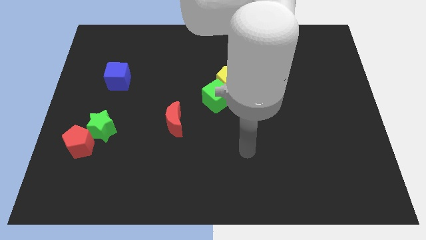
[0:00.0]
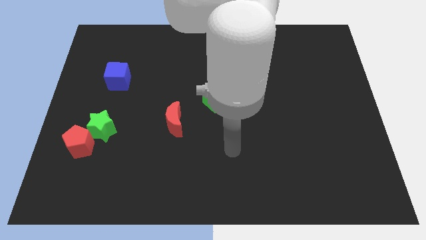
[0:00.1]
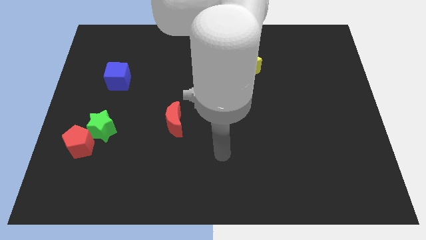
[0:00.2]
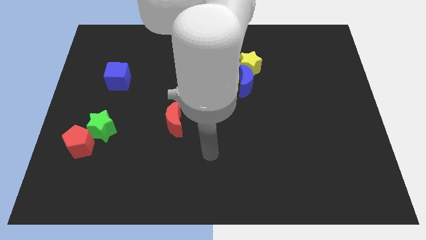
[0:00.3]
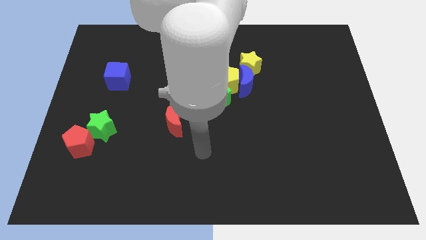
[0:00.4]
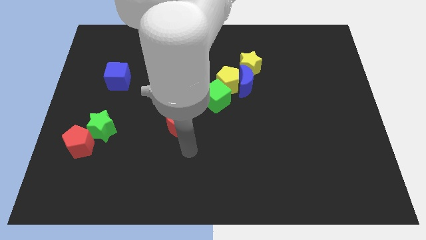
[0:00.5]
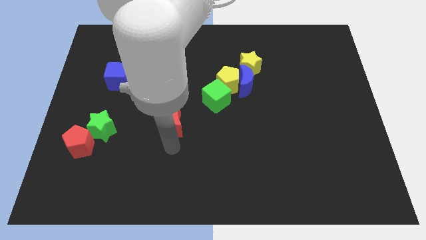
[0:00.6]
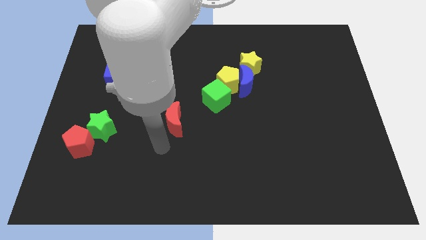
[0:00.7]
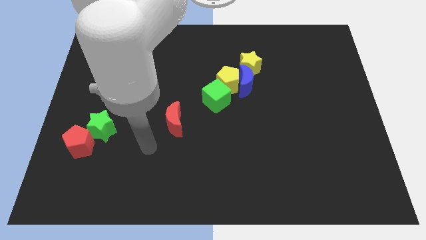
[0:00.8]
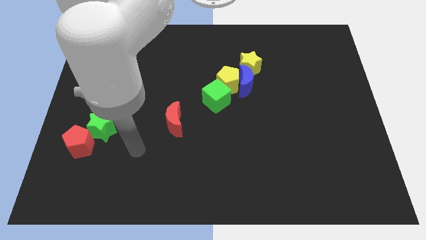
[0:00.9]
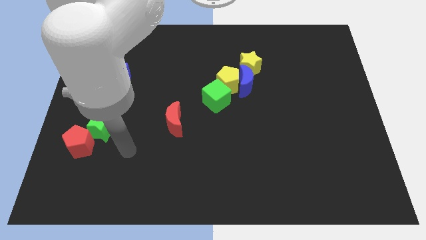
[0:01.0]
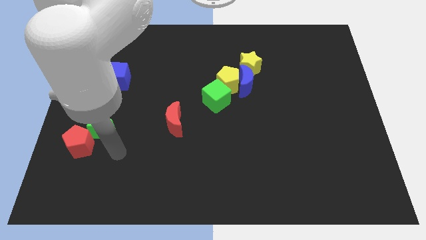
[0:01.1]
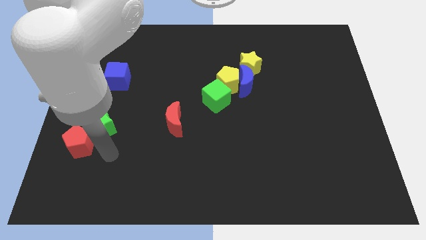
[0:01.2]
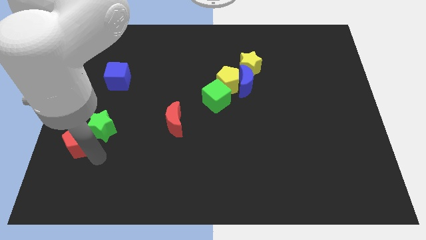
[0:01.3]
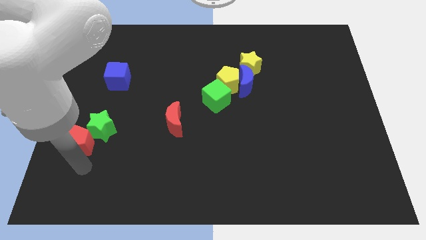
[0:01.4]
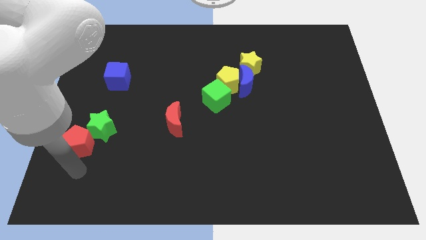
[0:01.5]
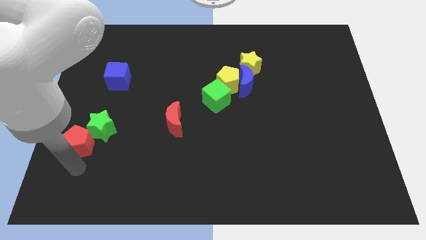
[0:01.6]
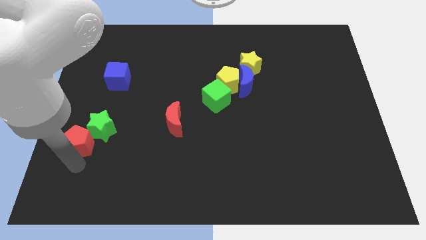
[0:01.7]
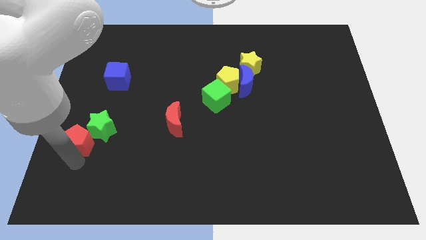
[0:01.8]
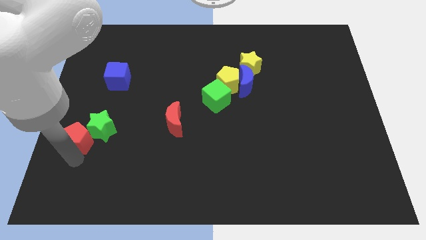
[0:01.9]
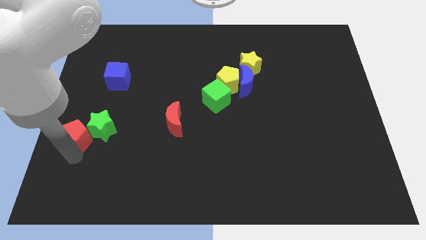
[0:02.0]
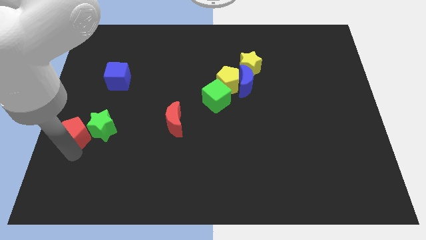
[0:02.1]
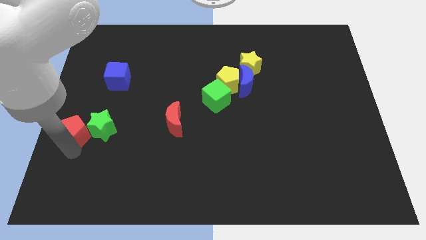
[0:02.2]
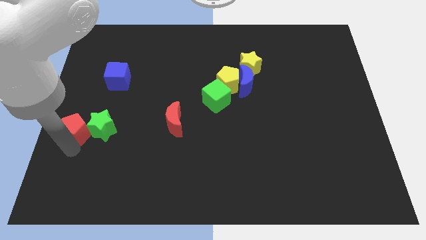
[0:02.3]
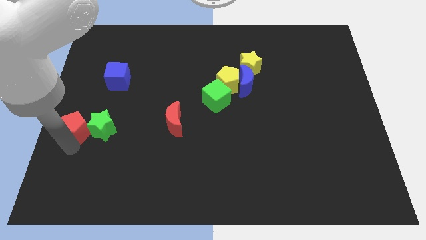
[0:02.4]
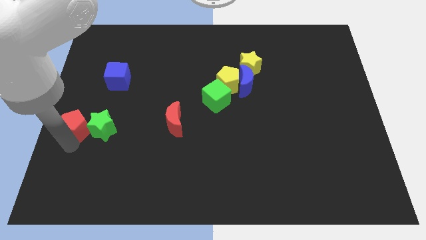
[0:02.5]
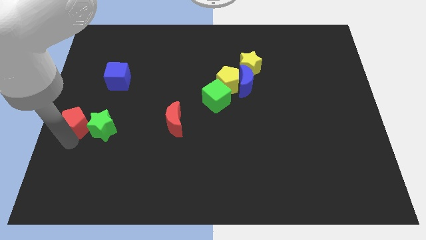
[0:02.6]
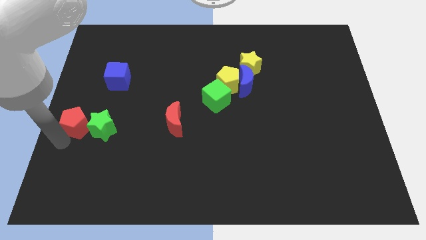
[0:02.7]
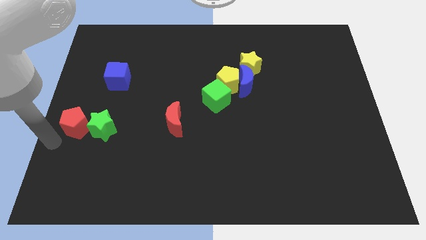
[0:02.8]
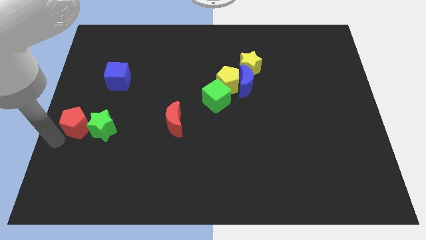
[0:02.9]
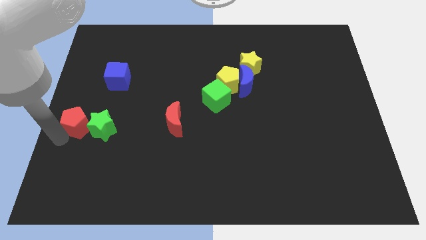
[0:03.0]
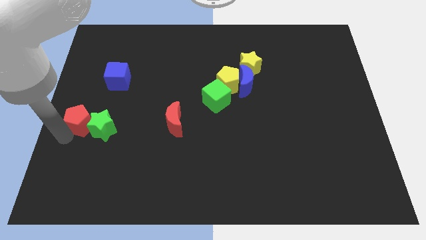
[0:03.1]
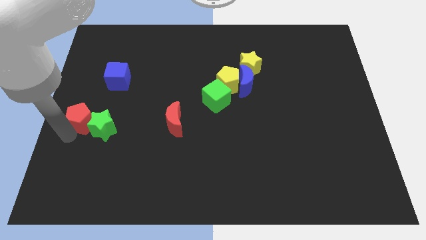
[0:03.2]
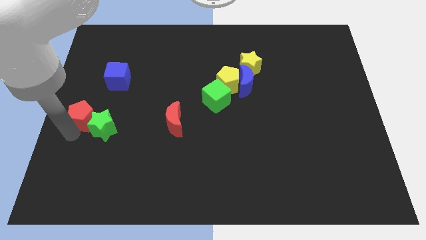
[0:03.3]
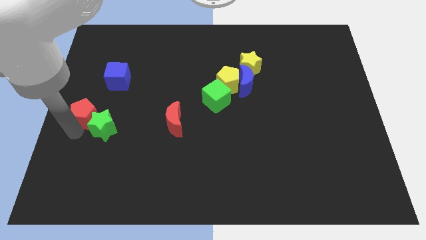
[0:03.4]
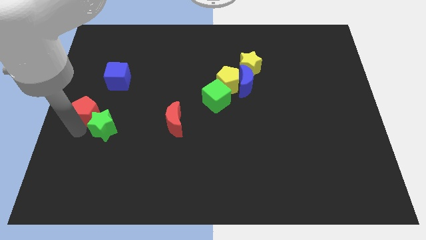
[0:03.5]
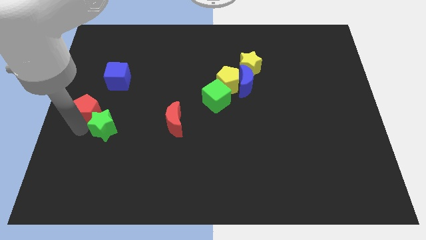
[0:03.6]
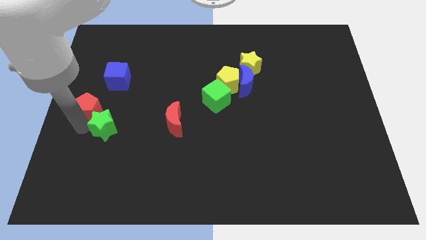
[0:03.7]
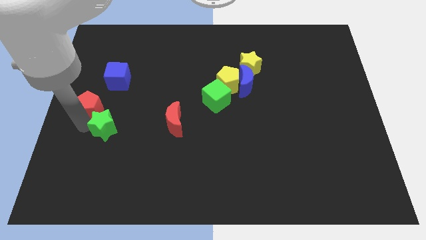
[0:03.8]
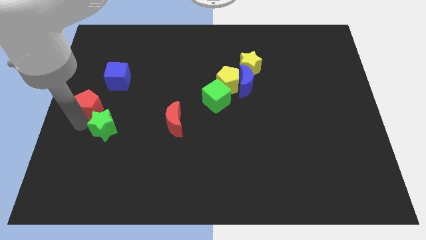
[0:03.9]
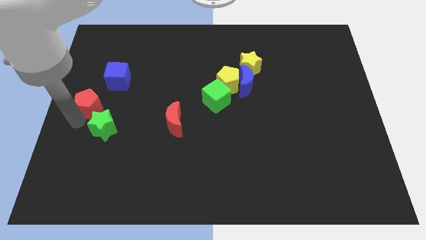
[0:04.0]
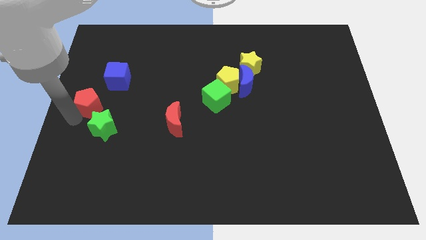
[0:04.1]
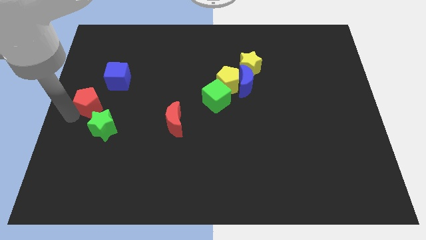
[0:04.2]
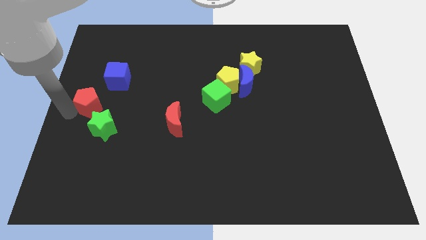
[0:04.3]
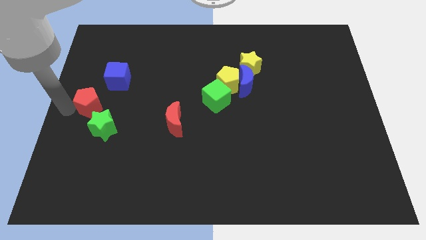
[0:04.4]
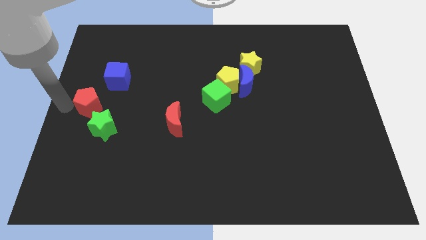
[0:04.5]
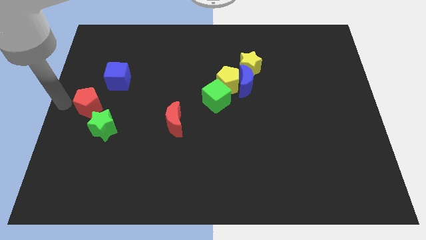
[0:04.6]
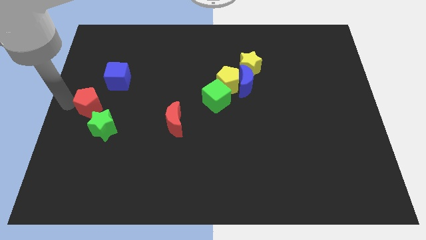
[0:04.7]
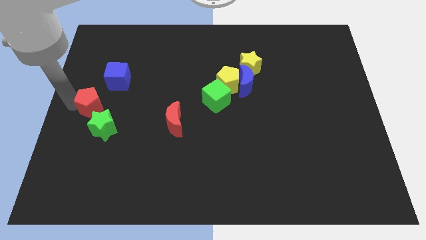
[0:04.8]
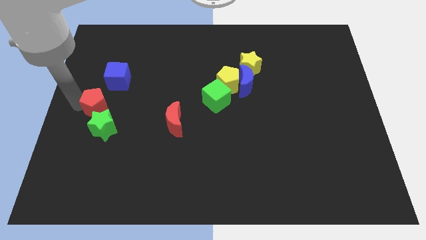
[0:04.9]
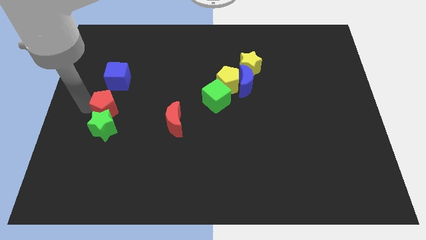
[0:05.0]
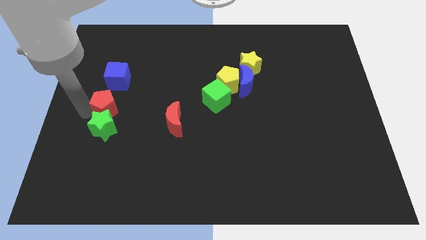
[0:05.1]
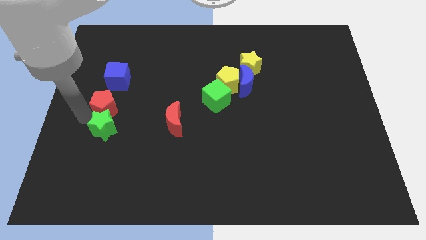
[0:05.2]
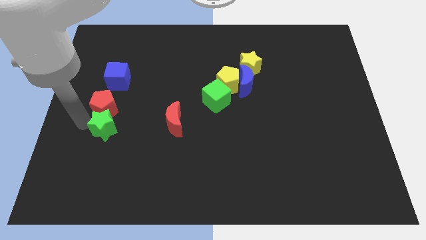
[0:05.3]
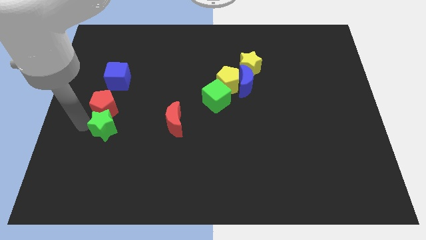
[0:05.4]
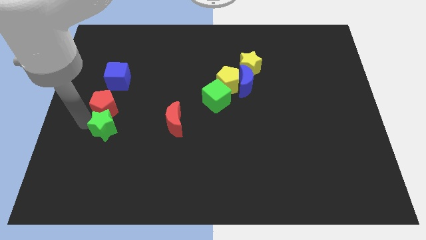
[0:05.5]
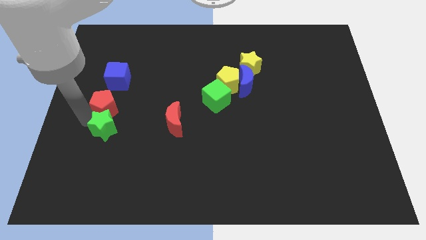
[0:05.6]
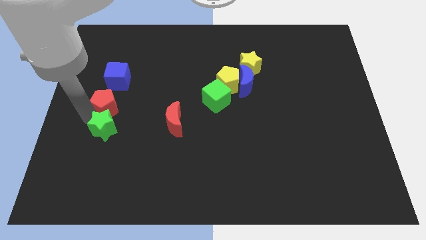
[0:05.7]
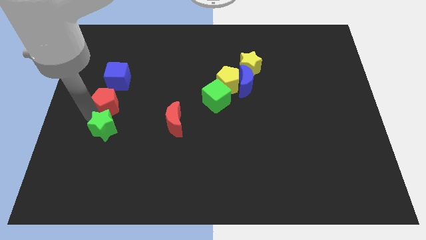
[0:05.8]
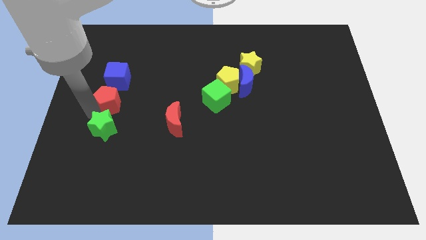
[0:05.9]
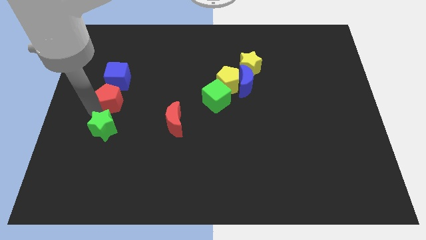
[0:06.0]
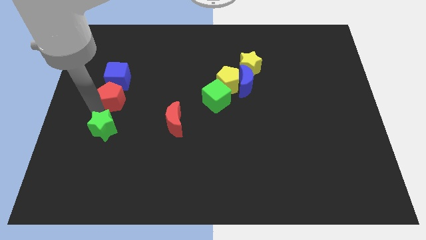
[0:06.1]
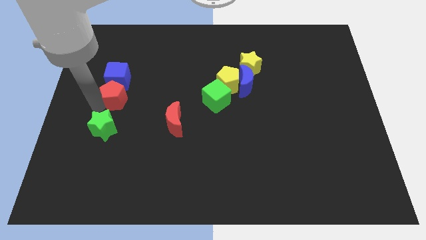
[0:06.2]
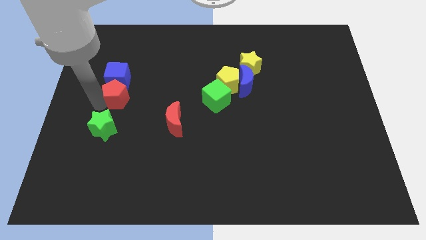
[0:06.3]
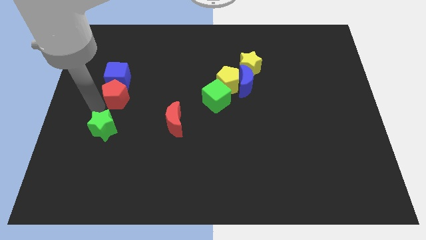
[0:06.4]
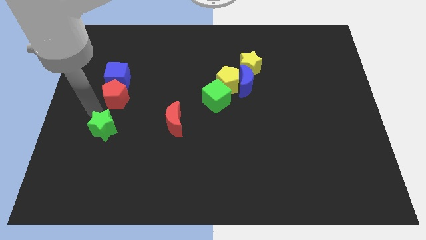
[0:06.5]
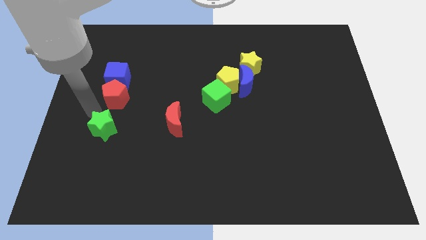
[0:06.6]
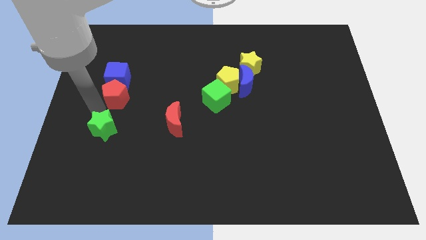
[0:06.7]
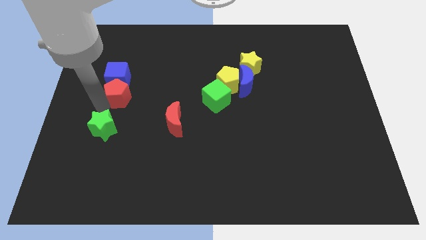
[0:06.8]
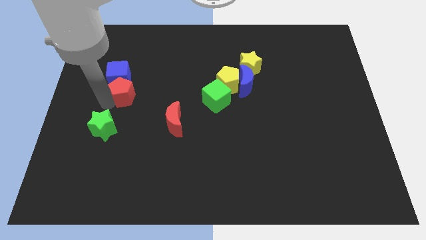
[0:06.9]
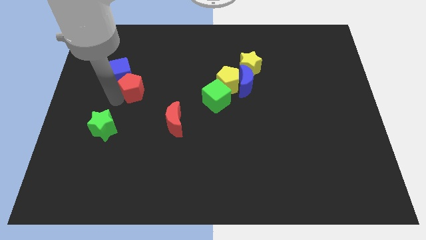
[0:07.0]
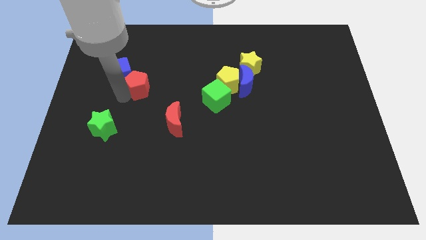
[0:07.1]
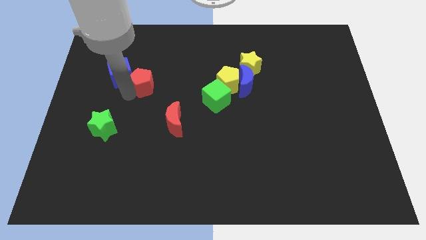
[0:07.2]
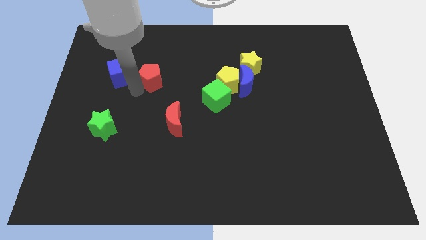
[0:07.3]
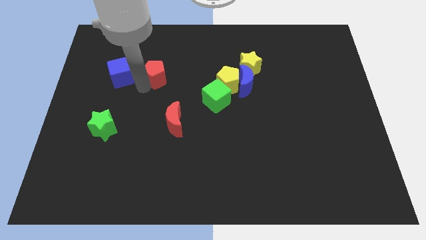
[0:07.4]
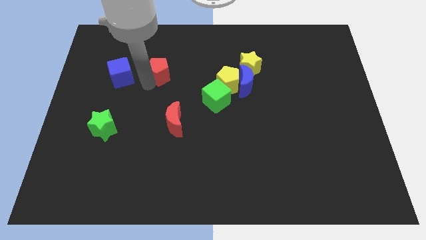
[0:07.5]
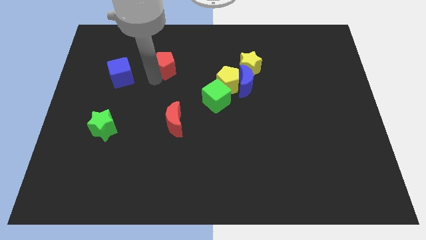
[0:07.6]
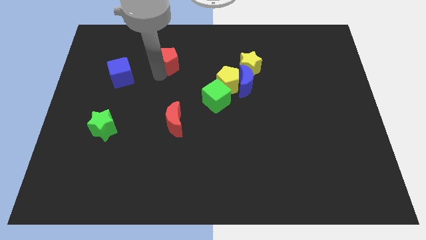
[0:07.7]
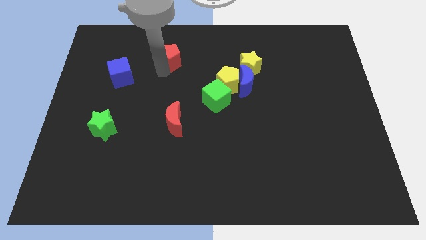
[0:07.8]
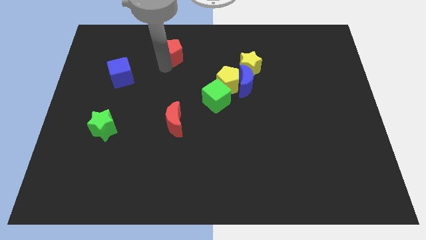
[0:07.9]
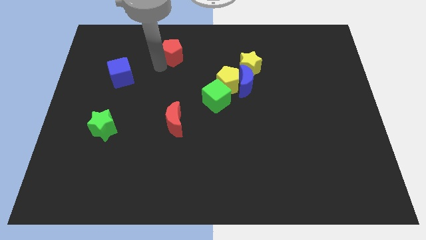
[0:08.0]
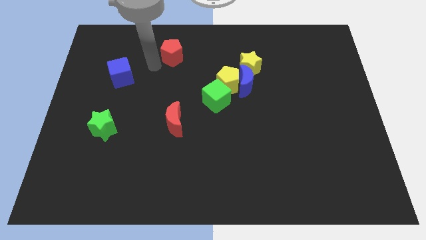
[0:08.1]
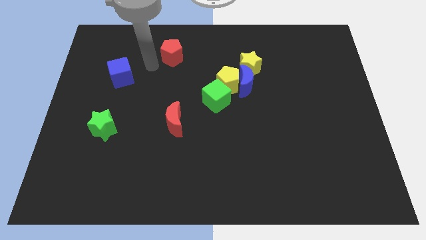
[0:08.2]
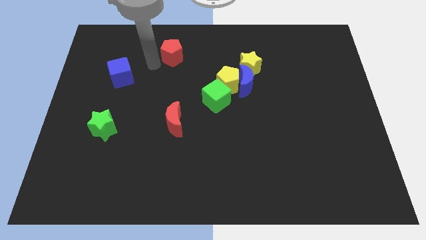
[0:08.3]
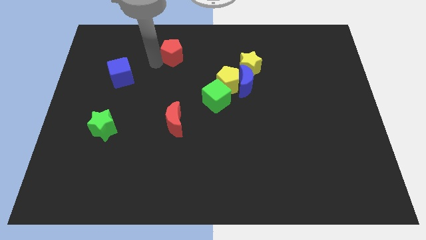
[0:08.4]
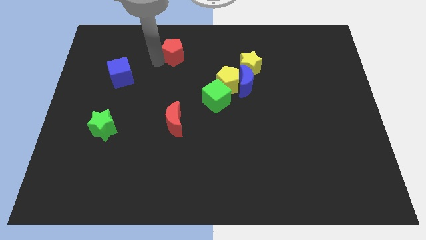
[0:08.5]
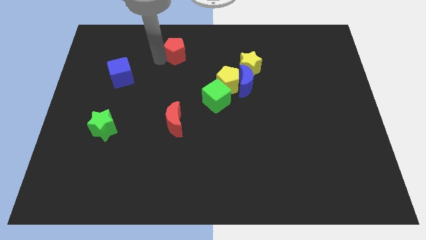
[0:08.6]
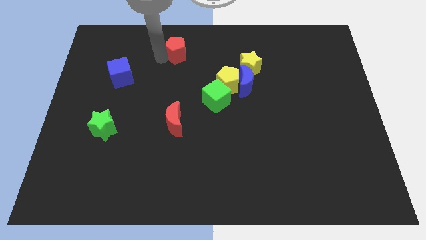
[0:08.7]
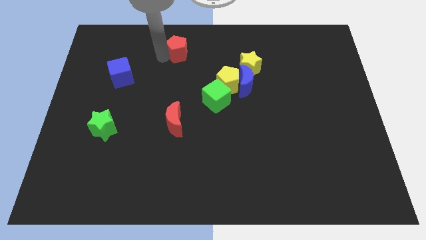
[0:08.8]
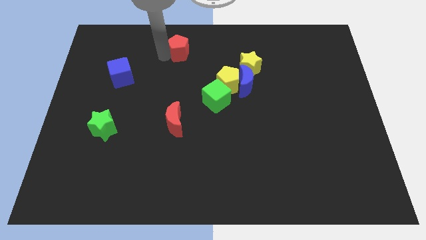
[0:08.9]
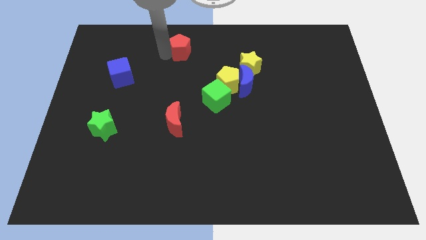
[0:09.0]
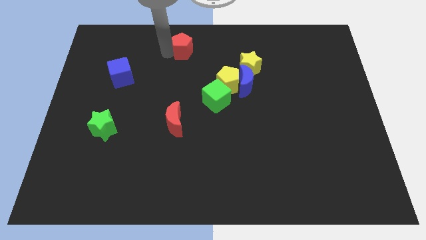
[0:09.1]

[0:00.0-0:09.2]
put the red pentagon to the top side
